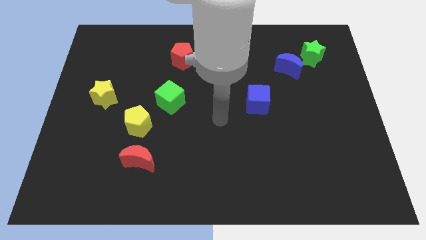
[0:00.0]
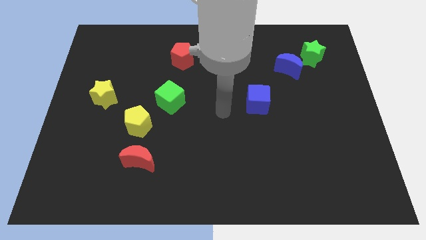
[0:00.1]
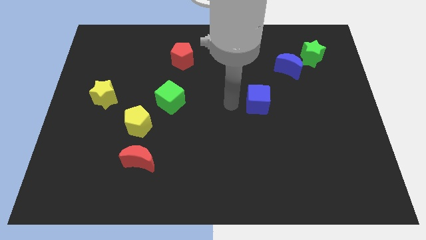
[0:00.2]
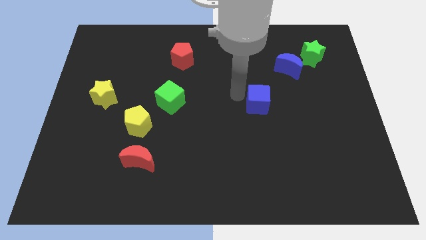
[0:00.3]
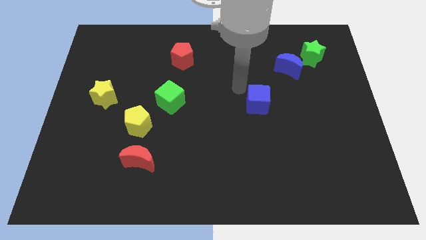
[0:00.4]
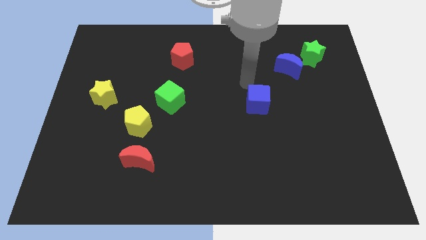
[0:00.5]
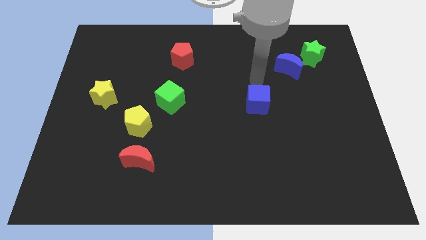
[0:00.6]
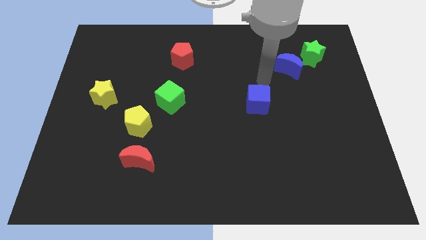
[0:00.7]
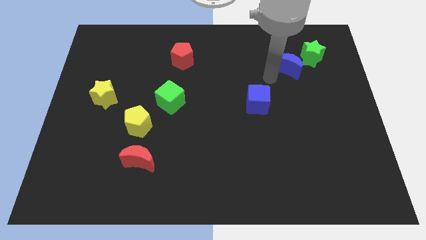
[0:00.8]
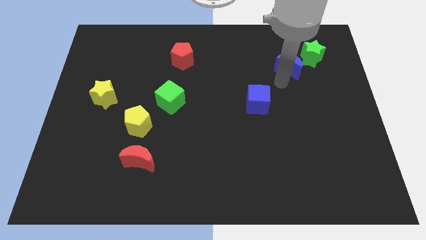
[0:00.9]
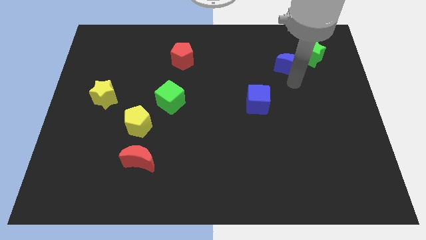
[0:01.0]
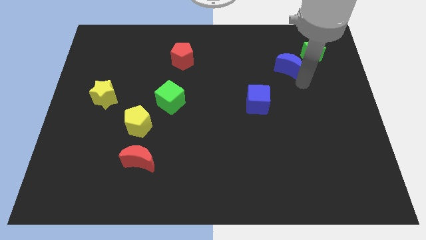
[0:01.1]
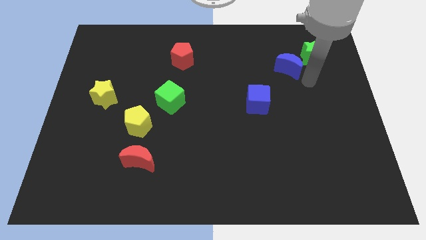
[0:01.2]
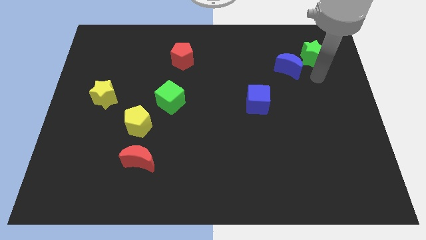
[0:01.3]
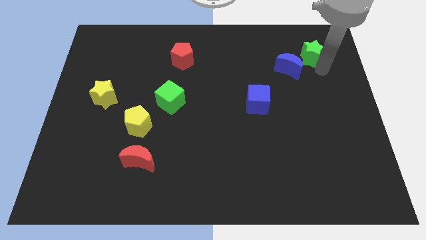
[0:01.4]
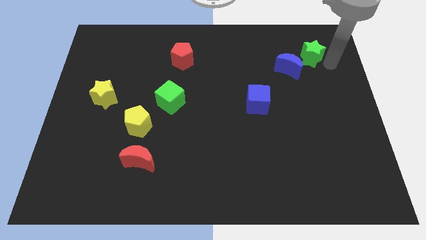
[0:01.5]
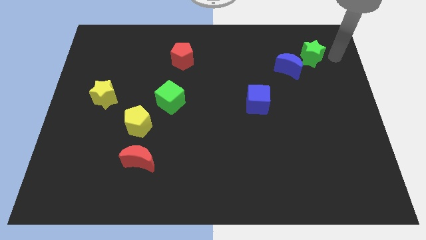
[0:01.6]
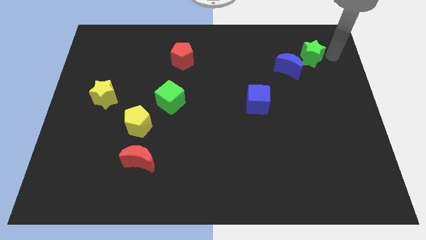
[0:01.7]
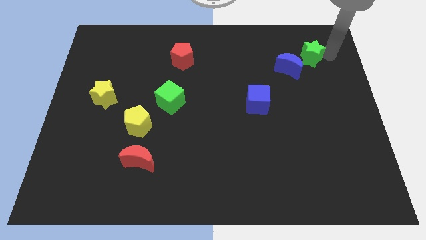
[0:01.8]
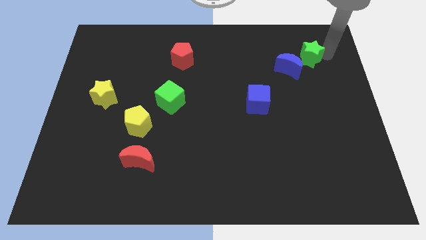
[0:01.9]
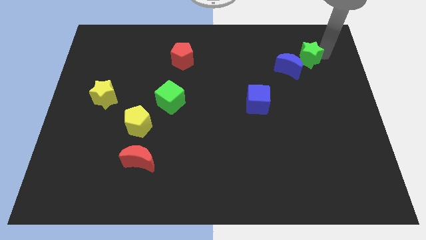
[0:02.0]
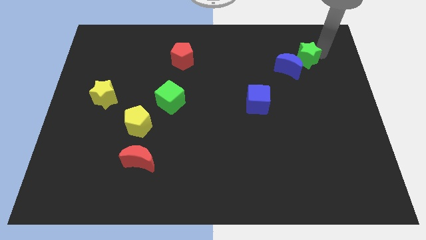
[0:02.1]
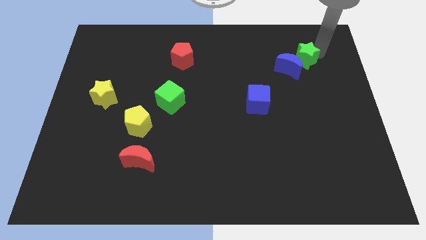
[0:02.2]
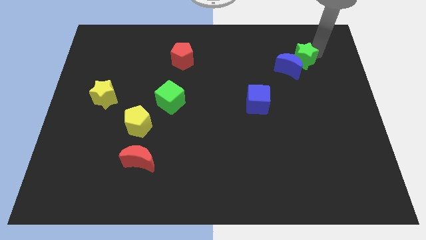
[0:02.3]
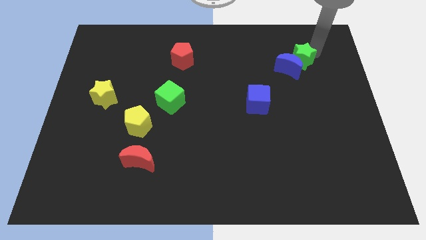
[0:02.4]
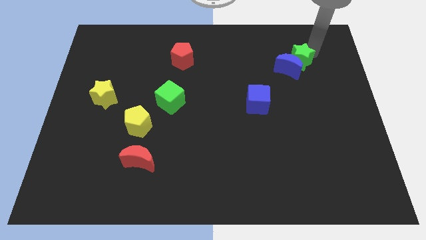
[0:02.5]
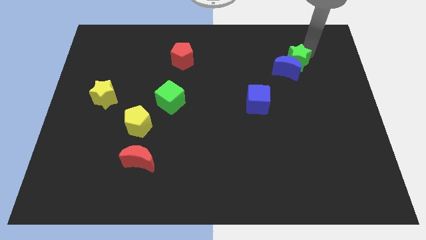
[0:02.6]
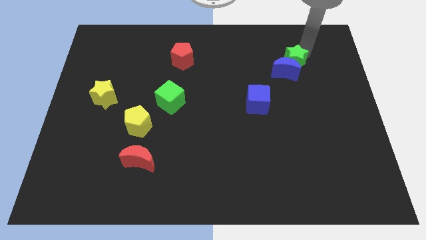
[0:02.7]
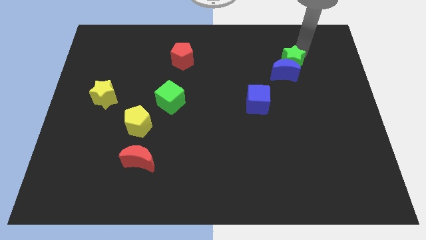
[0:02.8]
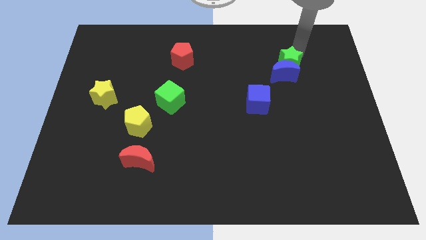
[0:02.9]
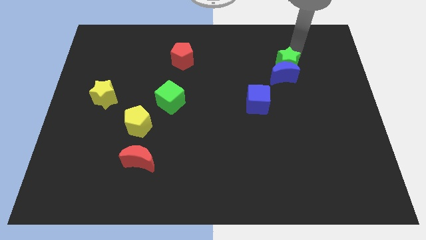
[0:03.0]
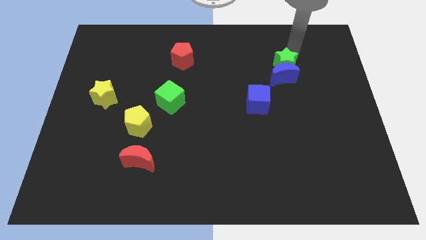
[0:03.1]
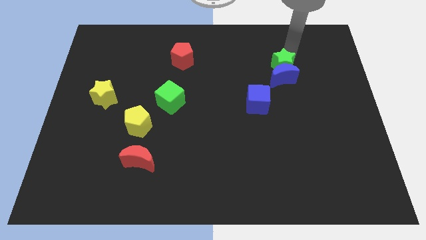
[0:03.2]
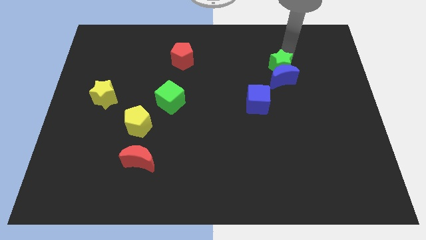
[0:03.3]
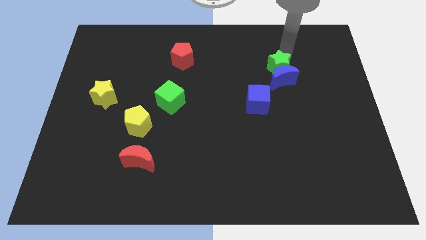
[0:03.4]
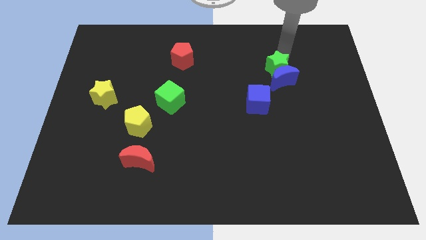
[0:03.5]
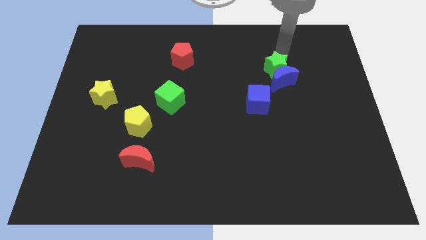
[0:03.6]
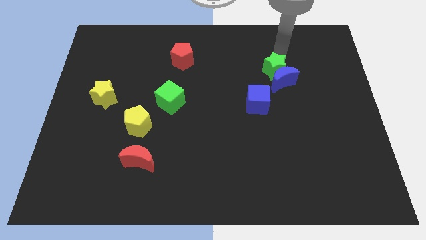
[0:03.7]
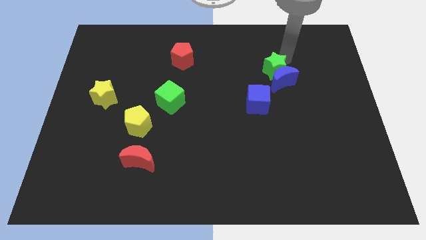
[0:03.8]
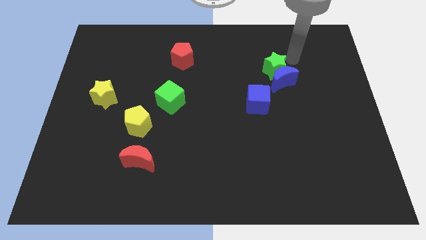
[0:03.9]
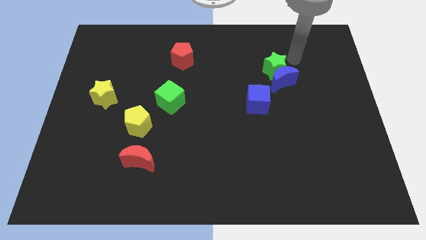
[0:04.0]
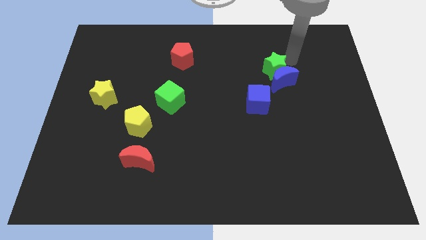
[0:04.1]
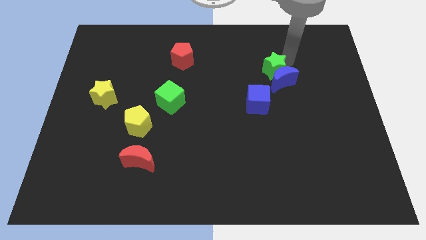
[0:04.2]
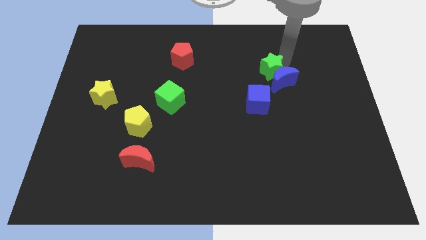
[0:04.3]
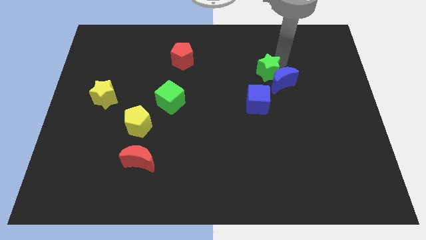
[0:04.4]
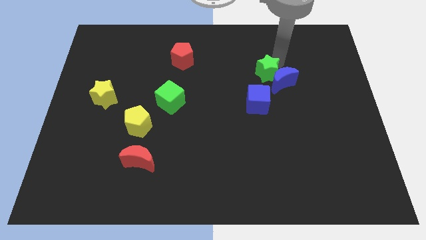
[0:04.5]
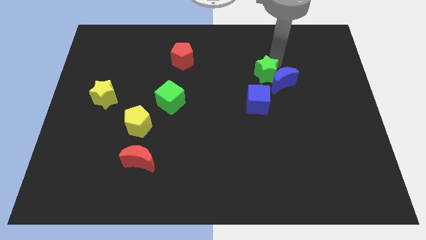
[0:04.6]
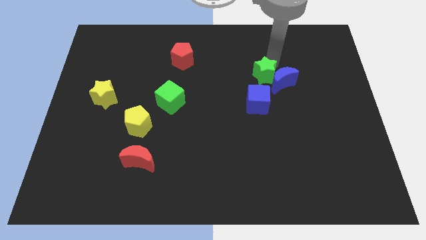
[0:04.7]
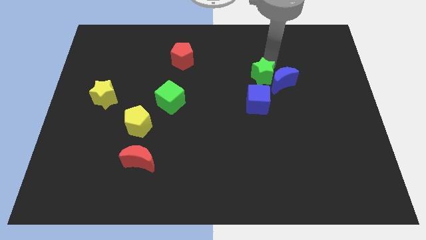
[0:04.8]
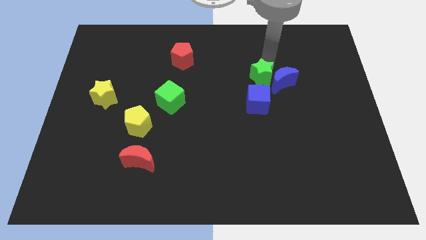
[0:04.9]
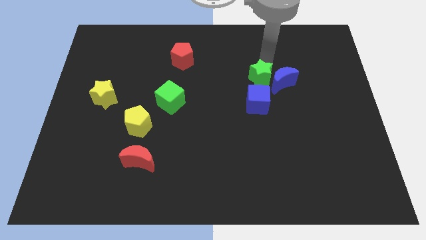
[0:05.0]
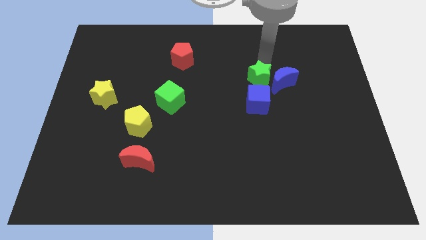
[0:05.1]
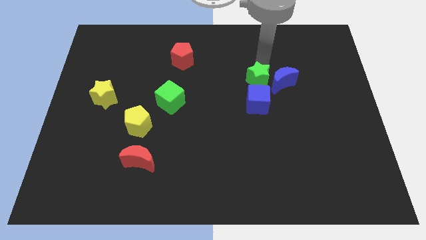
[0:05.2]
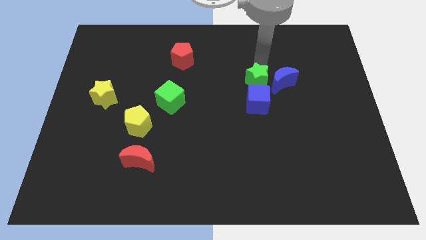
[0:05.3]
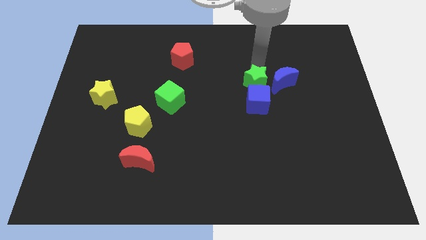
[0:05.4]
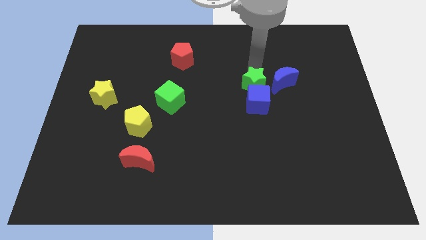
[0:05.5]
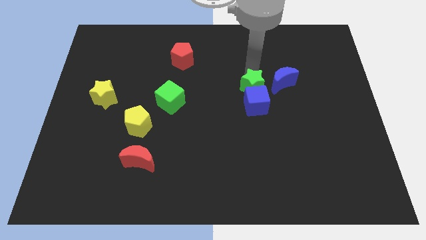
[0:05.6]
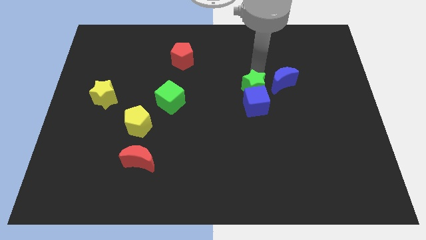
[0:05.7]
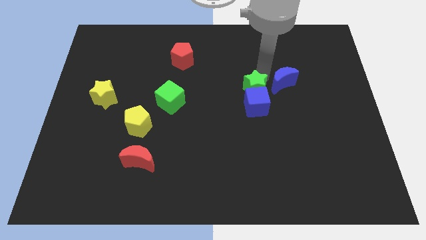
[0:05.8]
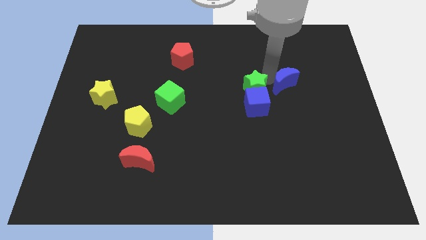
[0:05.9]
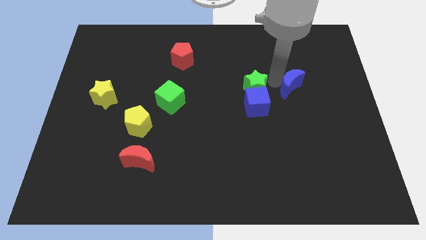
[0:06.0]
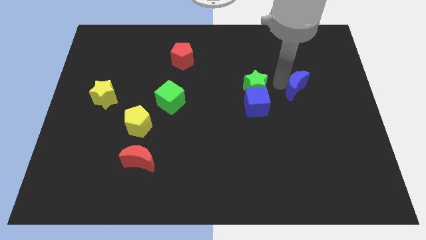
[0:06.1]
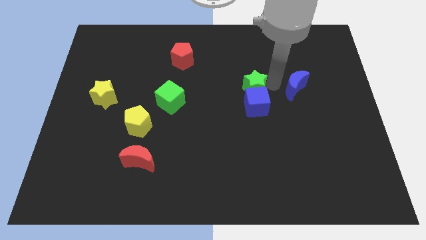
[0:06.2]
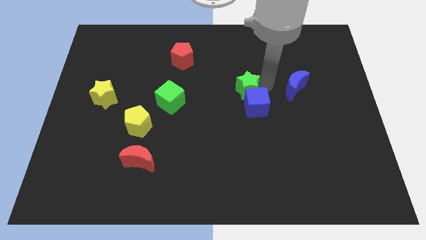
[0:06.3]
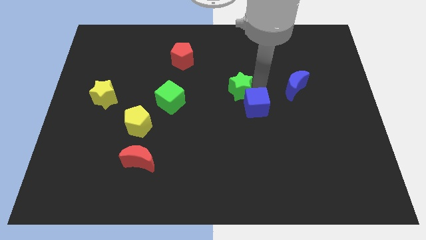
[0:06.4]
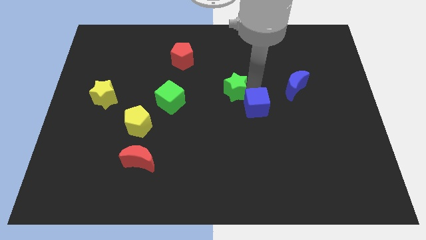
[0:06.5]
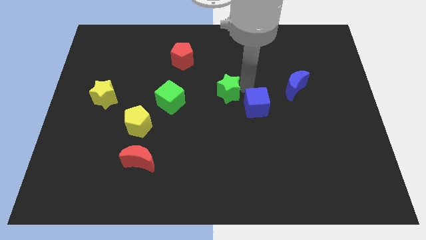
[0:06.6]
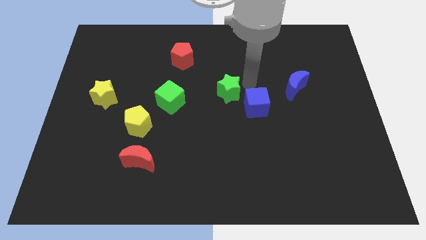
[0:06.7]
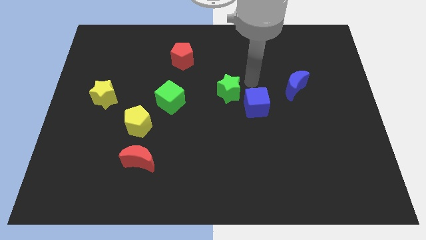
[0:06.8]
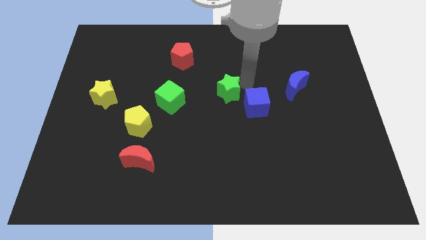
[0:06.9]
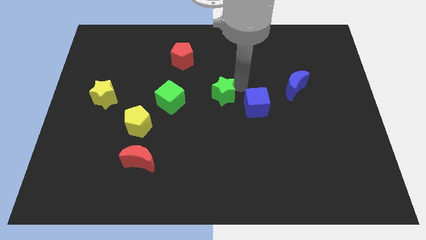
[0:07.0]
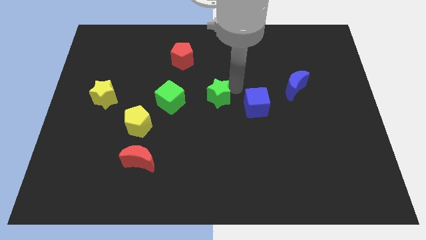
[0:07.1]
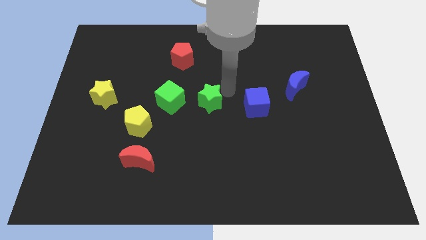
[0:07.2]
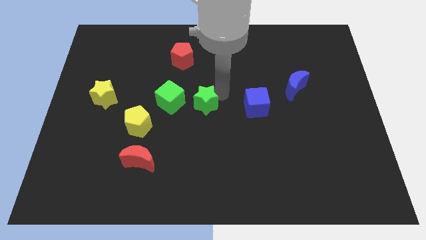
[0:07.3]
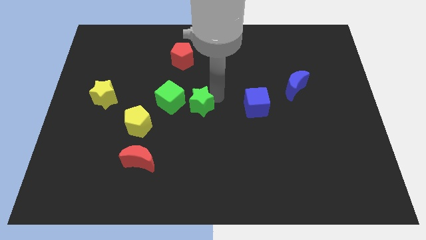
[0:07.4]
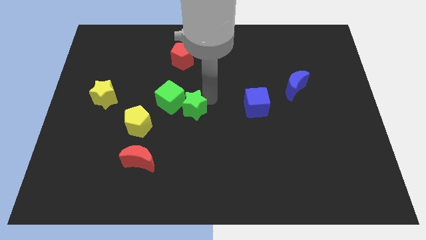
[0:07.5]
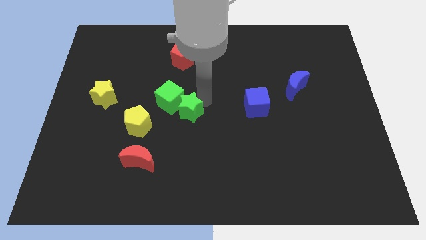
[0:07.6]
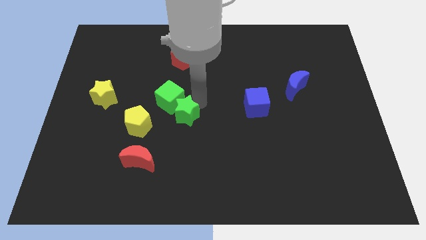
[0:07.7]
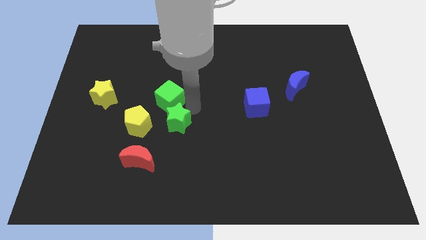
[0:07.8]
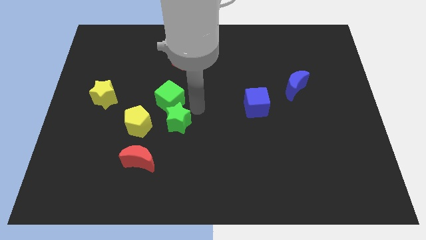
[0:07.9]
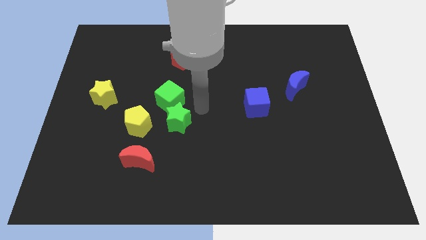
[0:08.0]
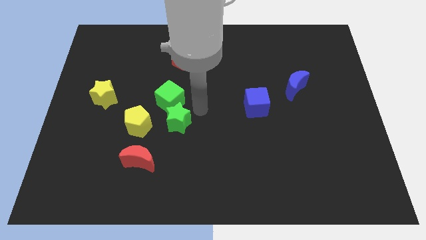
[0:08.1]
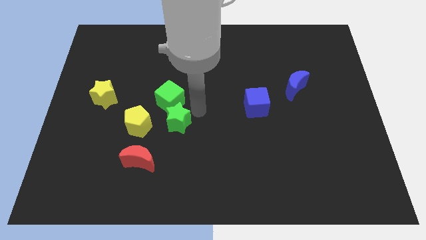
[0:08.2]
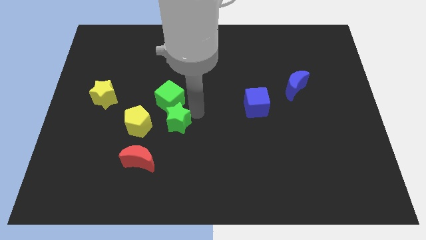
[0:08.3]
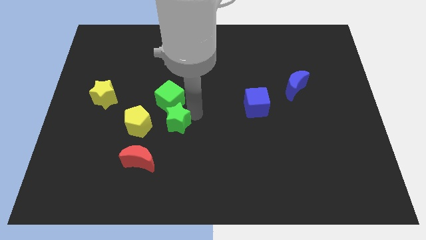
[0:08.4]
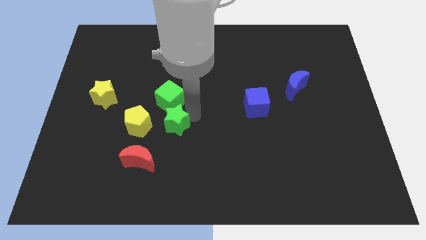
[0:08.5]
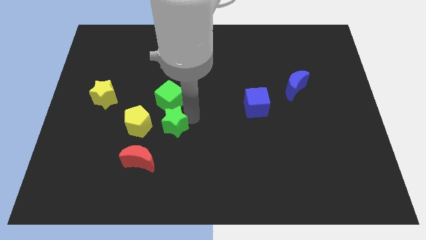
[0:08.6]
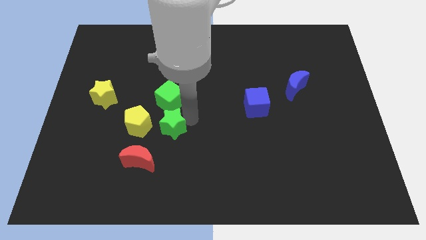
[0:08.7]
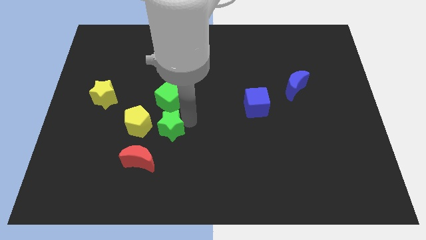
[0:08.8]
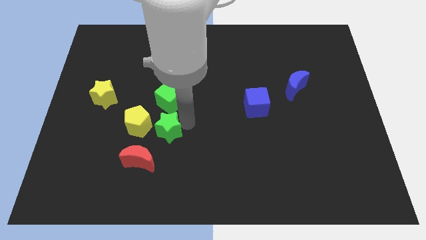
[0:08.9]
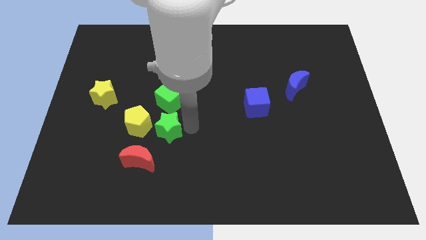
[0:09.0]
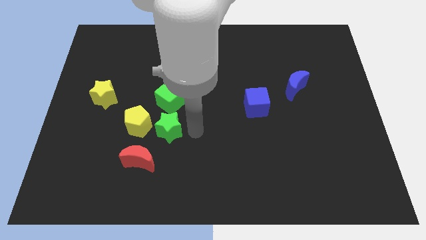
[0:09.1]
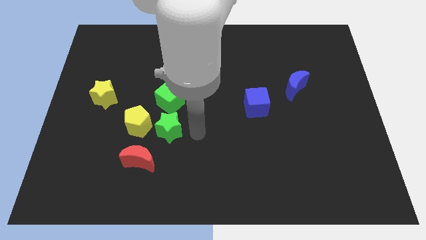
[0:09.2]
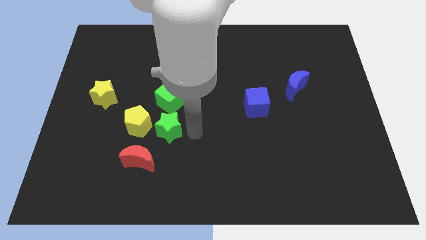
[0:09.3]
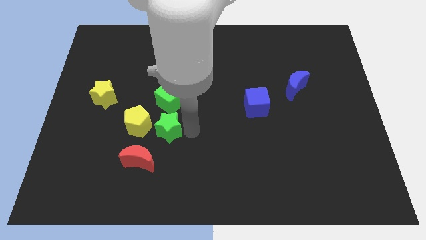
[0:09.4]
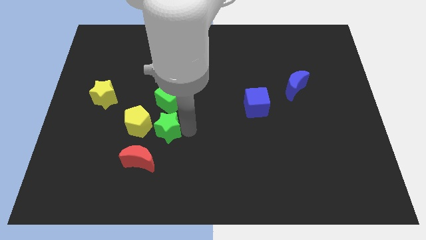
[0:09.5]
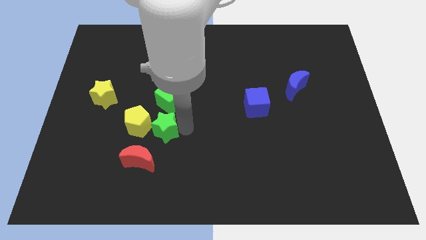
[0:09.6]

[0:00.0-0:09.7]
move the green star close to the yellow pentagon
